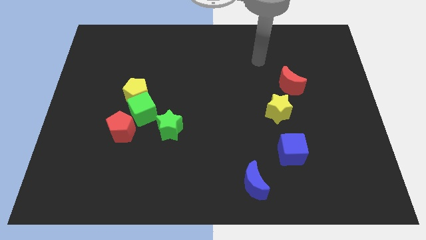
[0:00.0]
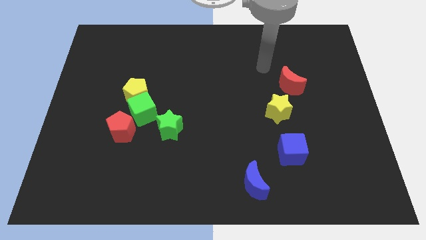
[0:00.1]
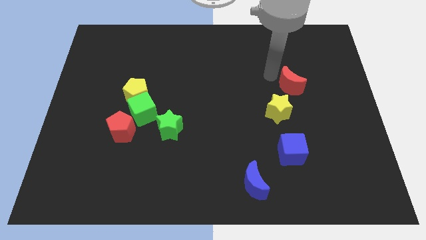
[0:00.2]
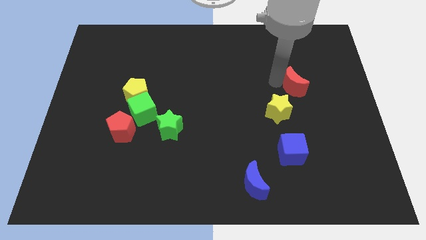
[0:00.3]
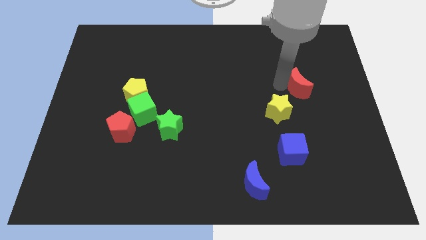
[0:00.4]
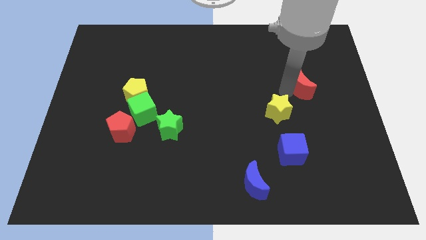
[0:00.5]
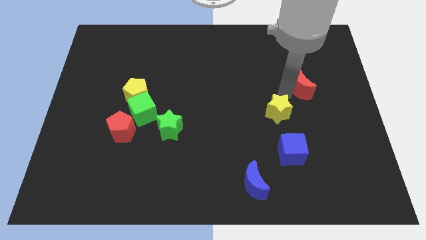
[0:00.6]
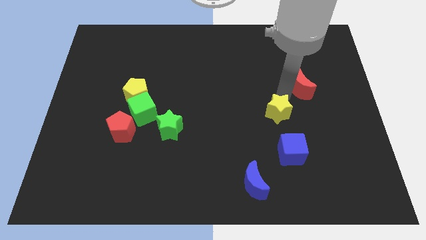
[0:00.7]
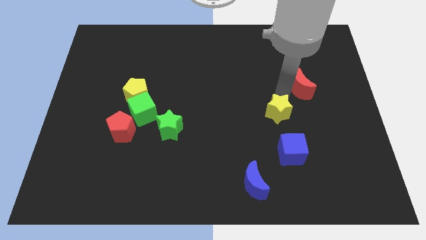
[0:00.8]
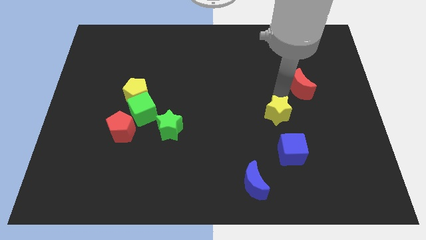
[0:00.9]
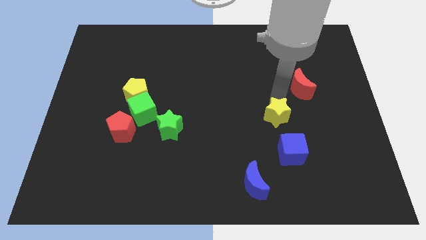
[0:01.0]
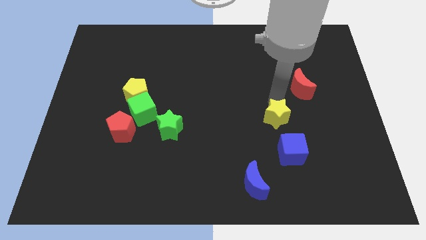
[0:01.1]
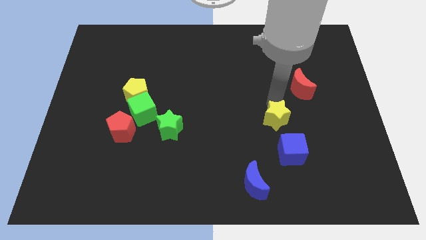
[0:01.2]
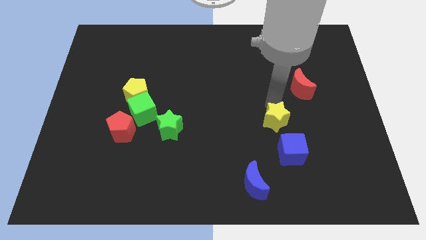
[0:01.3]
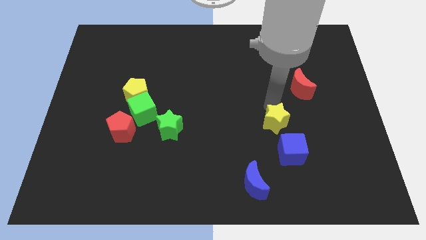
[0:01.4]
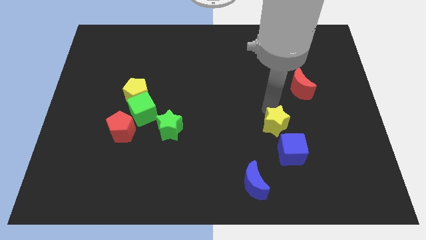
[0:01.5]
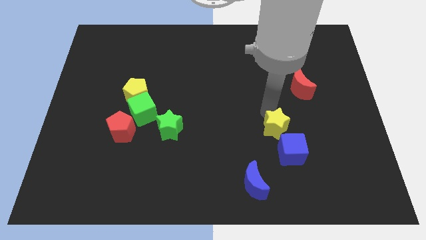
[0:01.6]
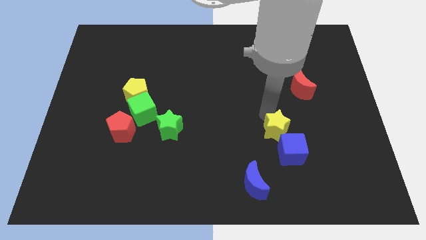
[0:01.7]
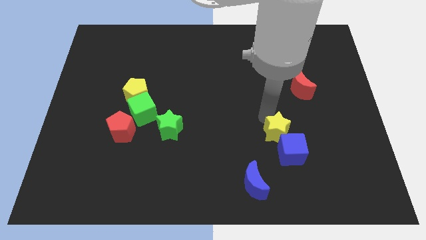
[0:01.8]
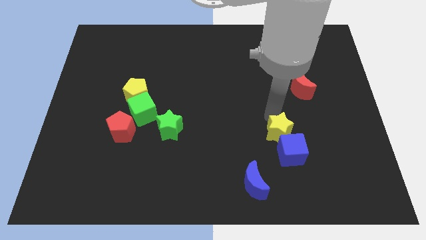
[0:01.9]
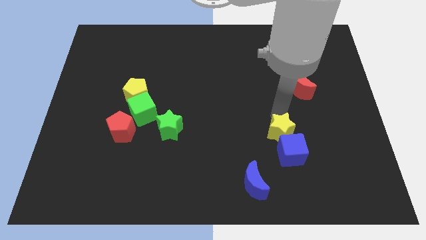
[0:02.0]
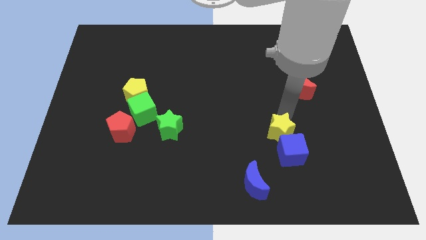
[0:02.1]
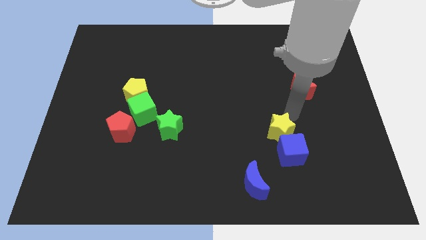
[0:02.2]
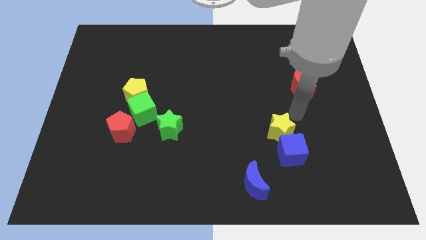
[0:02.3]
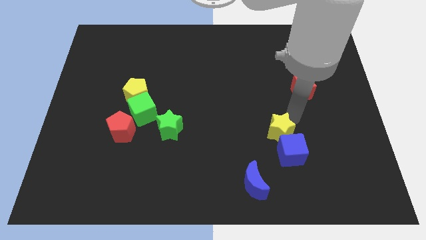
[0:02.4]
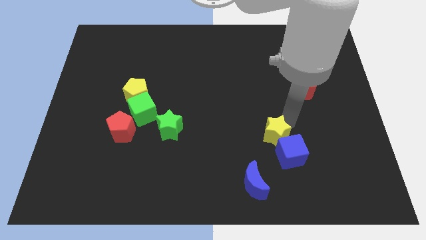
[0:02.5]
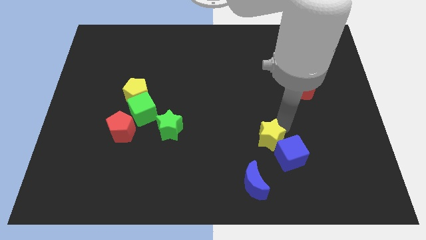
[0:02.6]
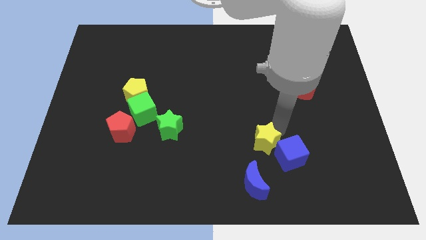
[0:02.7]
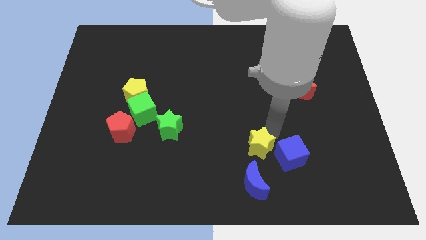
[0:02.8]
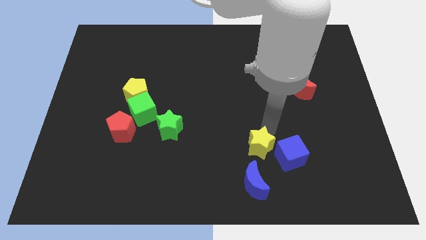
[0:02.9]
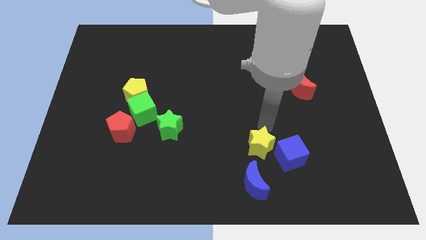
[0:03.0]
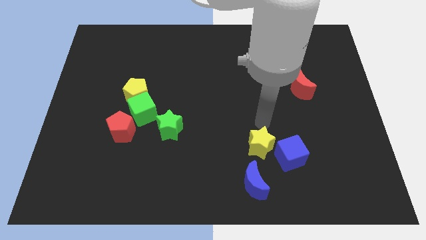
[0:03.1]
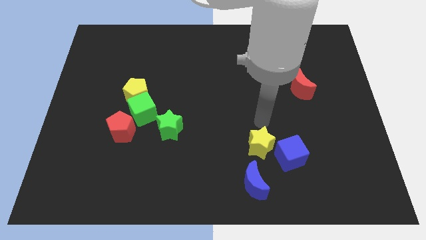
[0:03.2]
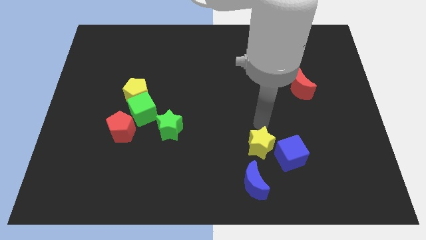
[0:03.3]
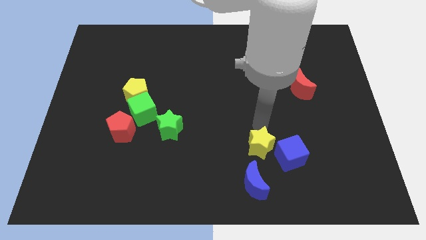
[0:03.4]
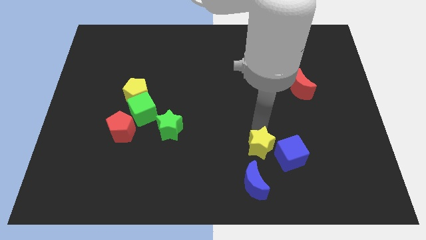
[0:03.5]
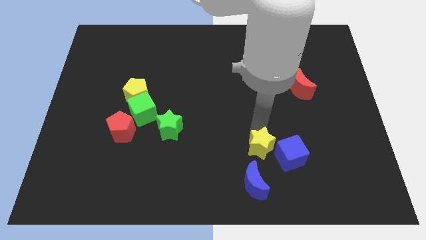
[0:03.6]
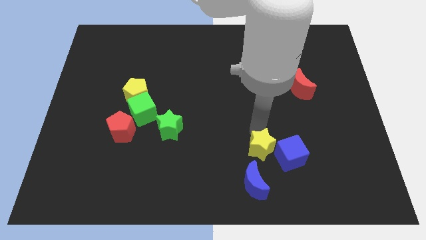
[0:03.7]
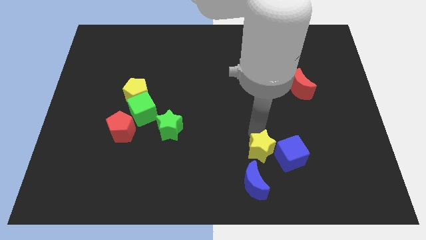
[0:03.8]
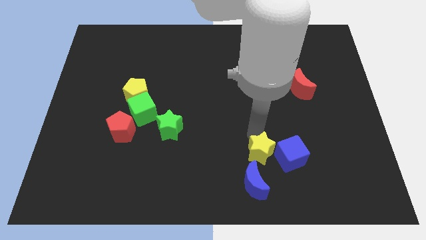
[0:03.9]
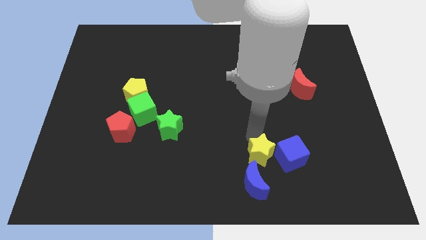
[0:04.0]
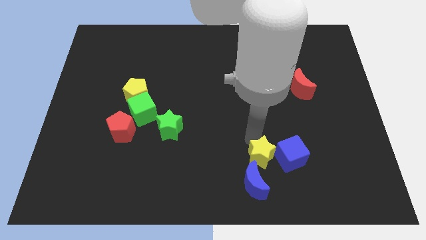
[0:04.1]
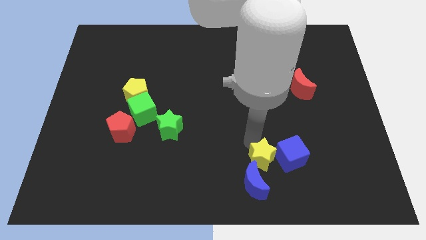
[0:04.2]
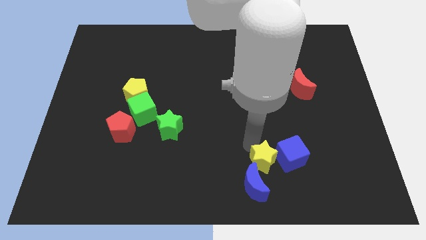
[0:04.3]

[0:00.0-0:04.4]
push the yellow star to the blue moon

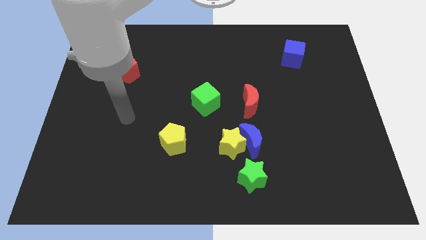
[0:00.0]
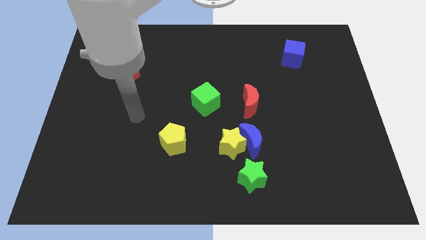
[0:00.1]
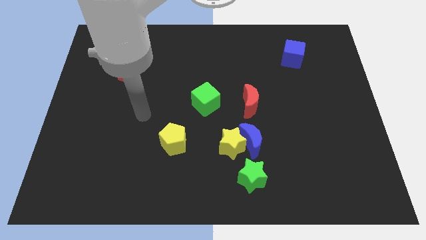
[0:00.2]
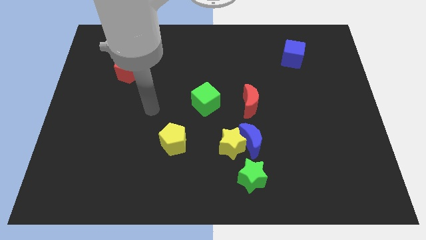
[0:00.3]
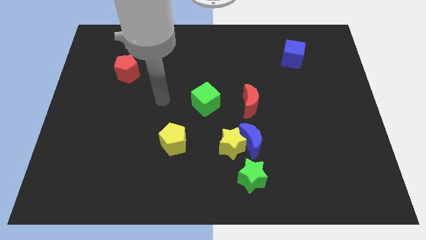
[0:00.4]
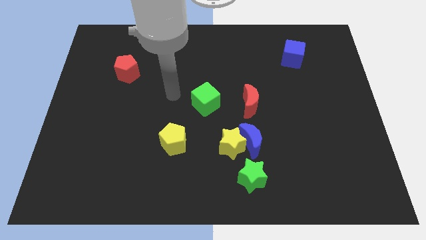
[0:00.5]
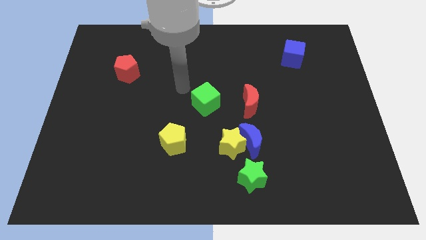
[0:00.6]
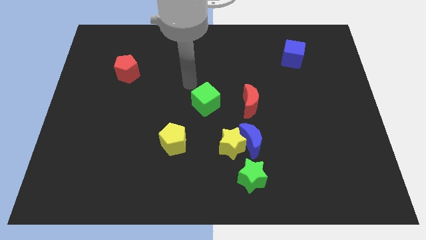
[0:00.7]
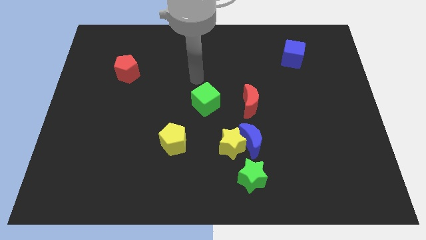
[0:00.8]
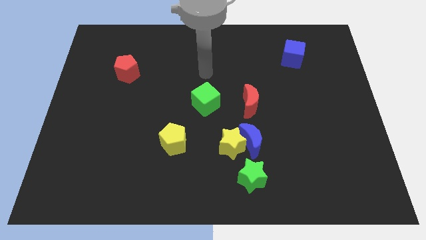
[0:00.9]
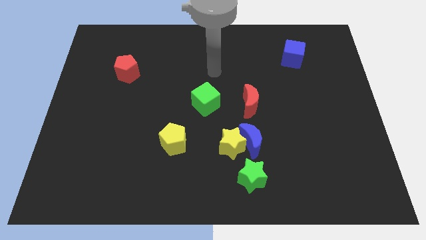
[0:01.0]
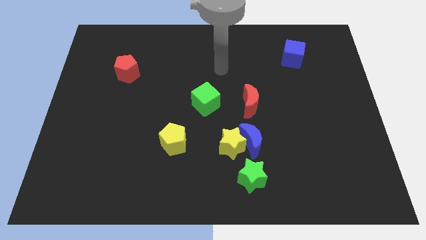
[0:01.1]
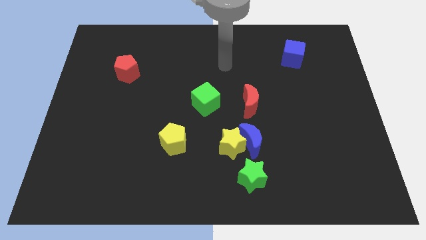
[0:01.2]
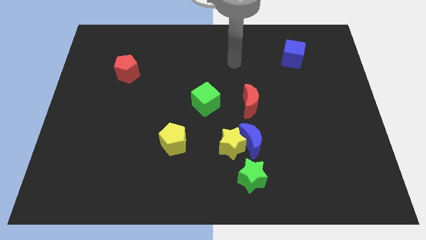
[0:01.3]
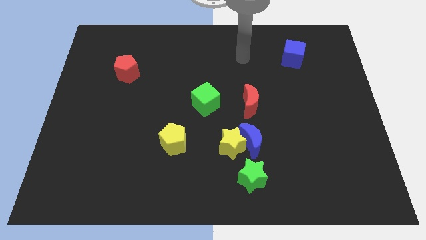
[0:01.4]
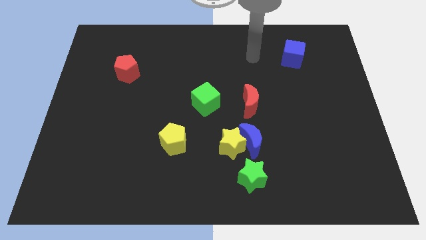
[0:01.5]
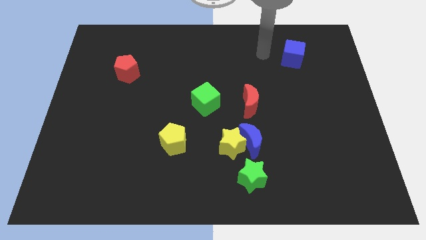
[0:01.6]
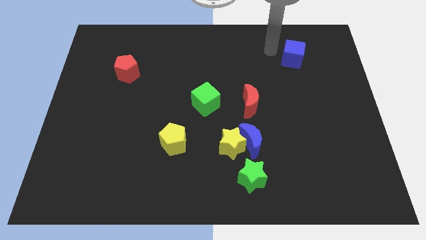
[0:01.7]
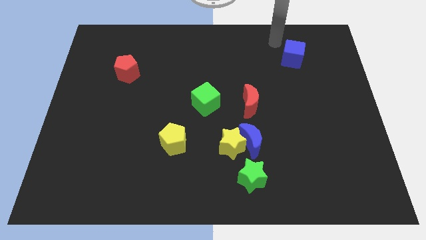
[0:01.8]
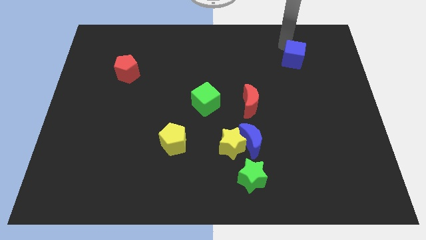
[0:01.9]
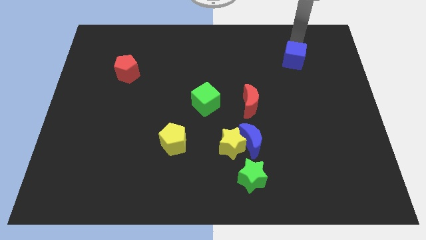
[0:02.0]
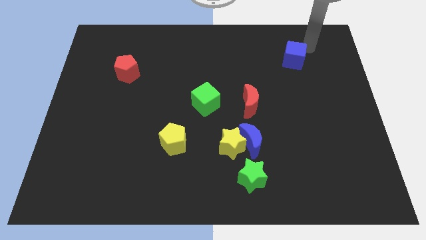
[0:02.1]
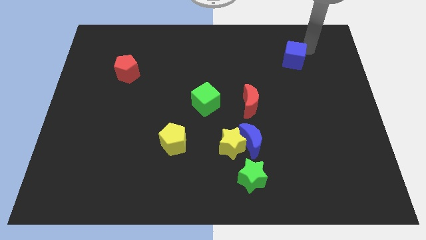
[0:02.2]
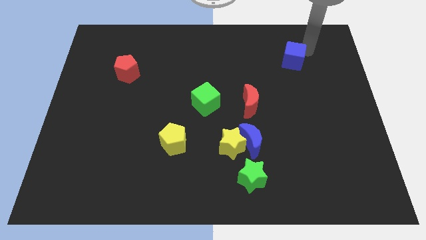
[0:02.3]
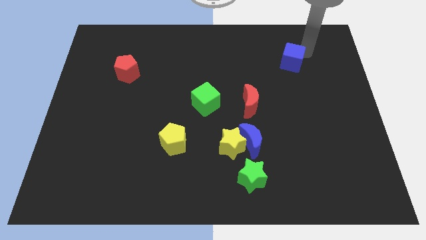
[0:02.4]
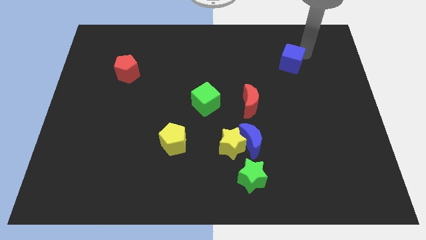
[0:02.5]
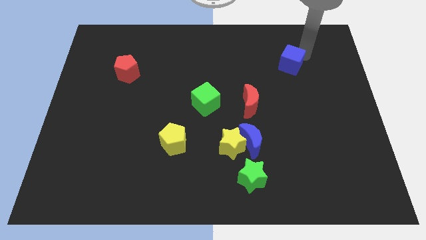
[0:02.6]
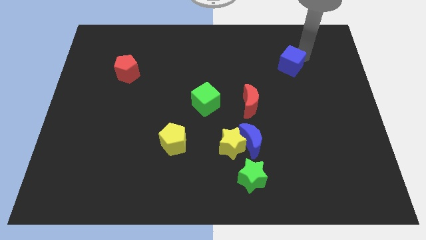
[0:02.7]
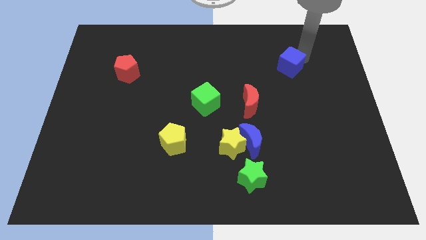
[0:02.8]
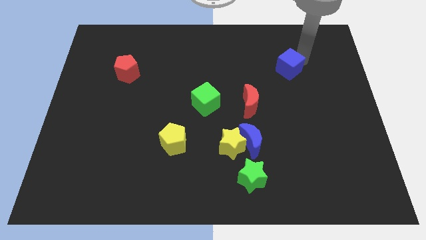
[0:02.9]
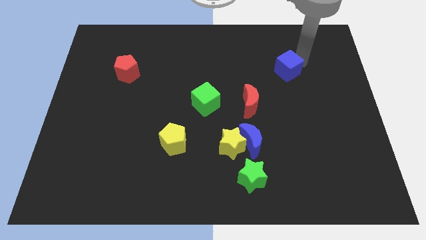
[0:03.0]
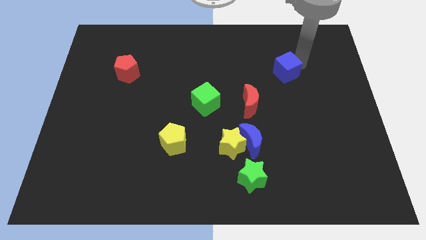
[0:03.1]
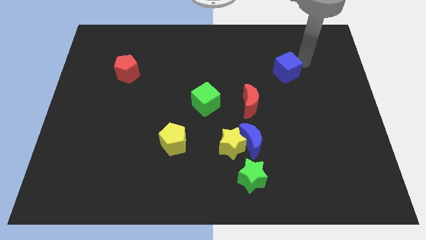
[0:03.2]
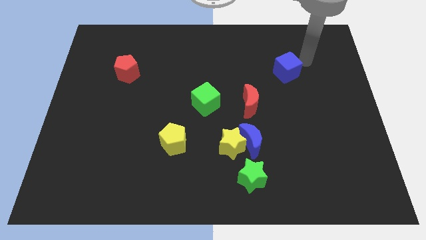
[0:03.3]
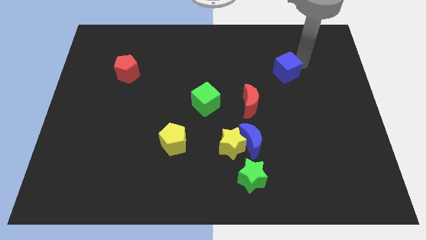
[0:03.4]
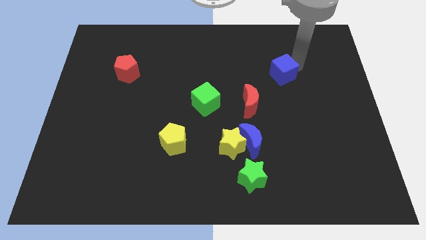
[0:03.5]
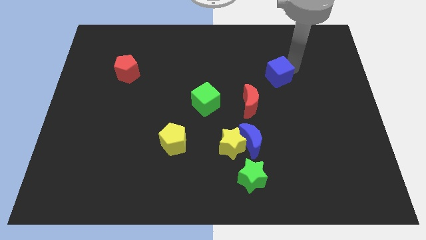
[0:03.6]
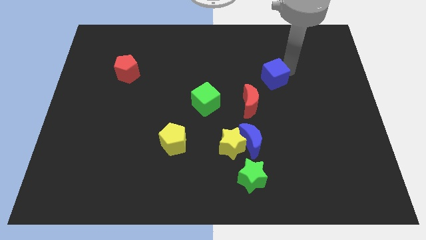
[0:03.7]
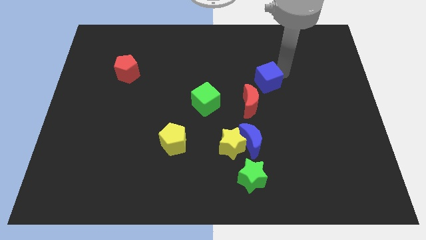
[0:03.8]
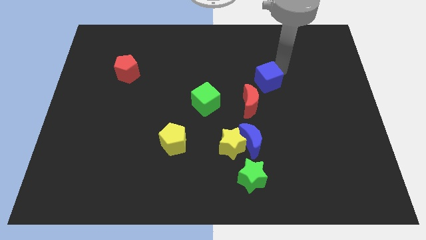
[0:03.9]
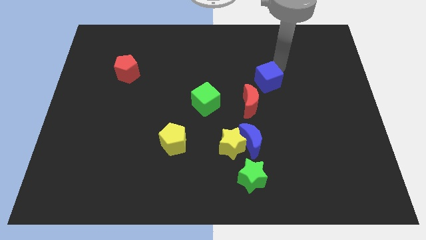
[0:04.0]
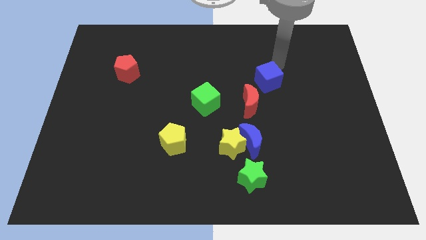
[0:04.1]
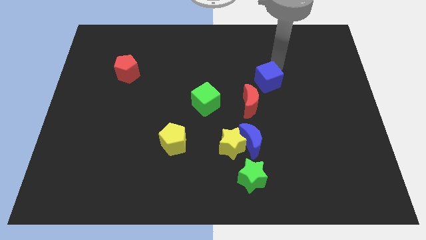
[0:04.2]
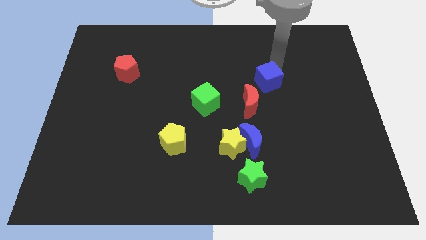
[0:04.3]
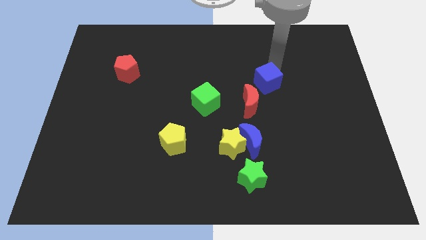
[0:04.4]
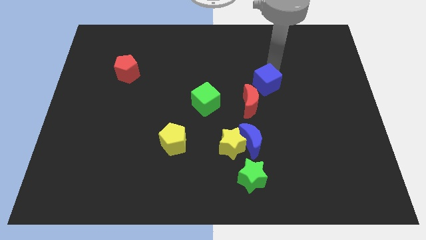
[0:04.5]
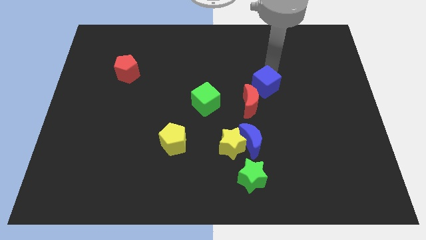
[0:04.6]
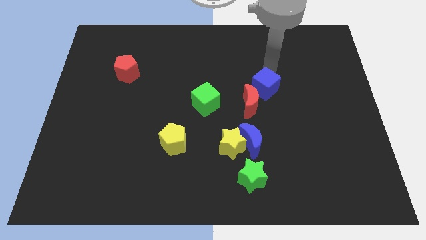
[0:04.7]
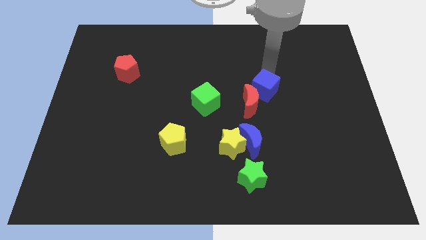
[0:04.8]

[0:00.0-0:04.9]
put the blue cube to the red moon
